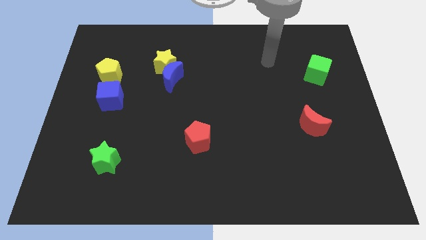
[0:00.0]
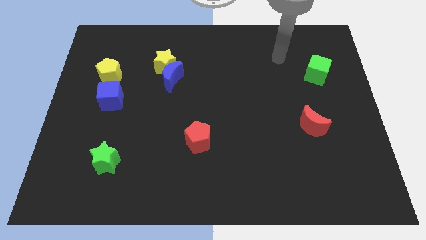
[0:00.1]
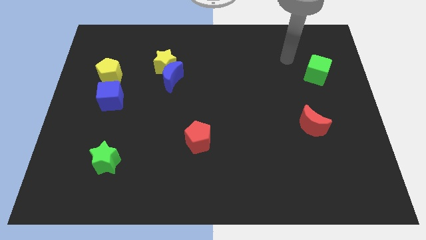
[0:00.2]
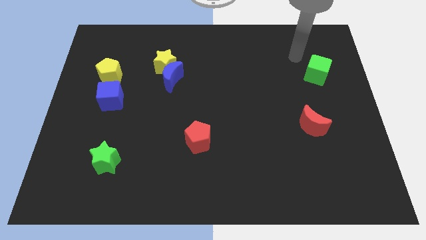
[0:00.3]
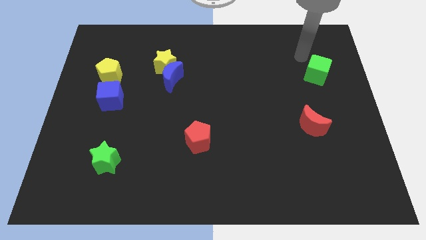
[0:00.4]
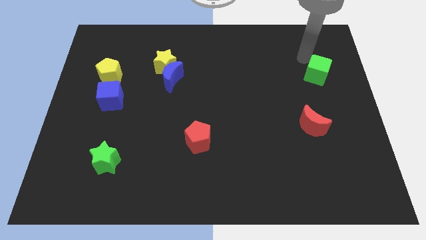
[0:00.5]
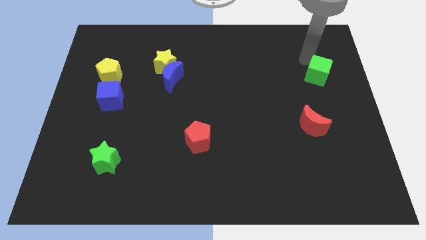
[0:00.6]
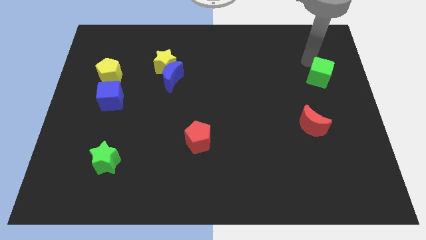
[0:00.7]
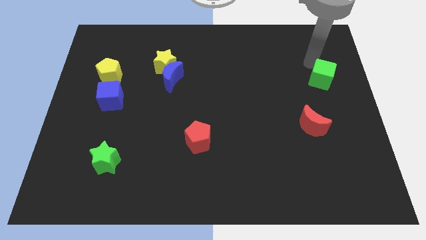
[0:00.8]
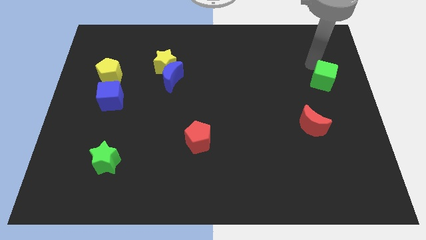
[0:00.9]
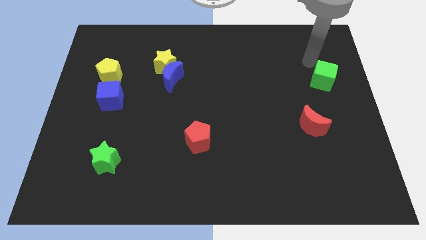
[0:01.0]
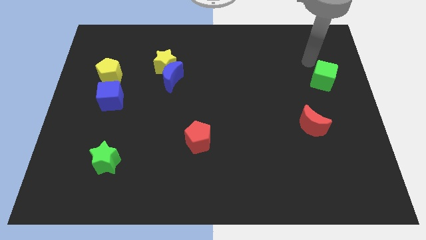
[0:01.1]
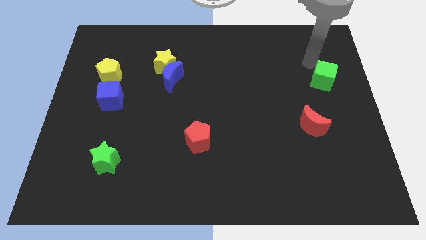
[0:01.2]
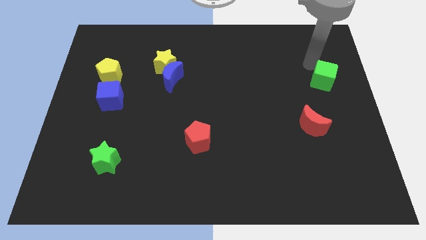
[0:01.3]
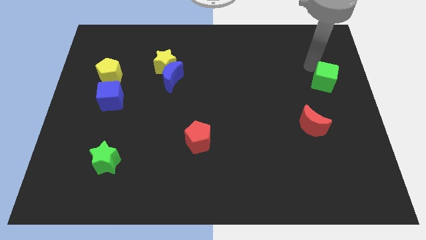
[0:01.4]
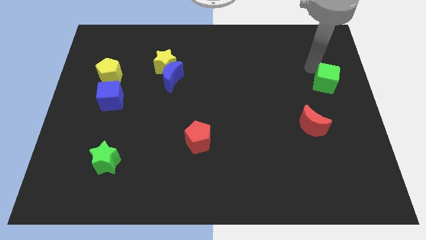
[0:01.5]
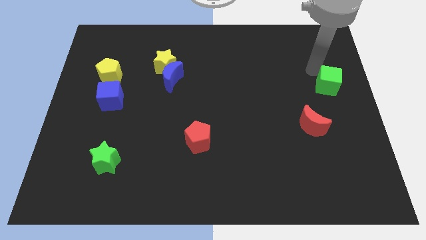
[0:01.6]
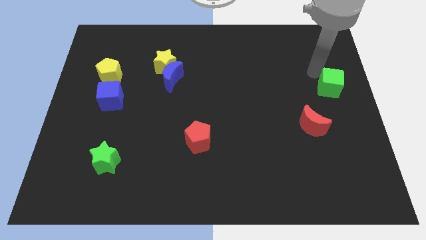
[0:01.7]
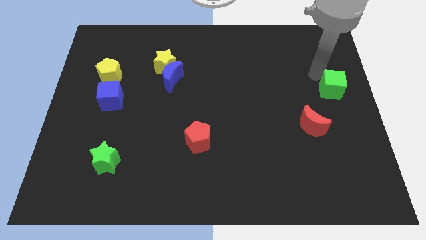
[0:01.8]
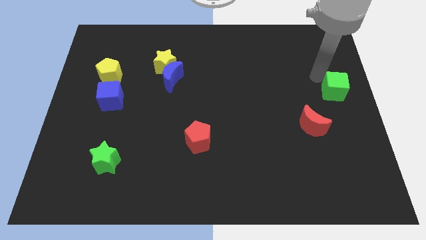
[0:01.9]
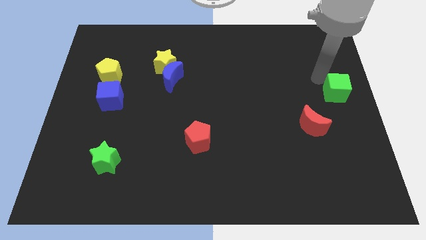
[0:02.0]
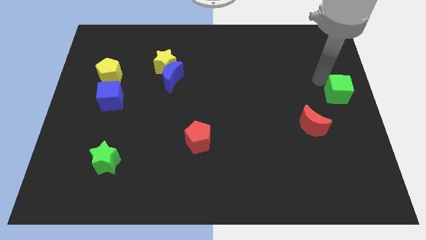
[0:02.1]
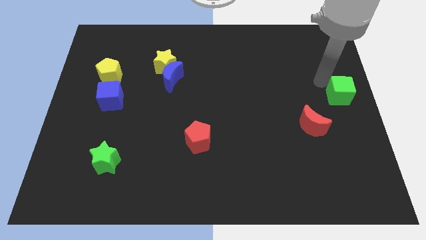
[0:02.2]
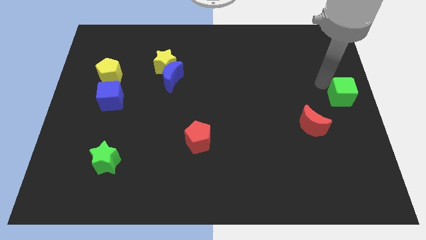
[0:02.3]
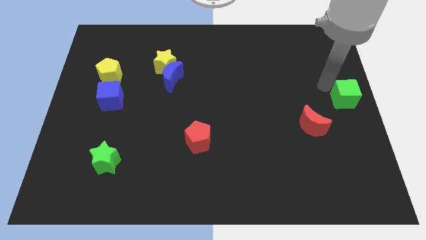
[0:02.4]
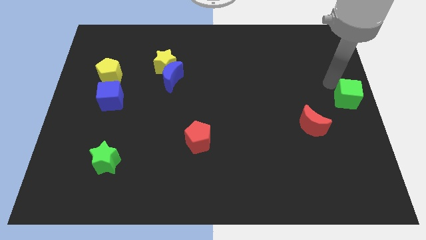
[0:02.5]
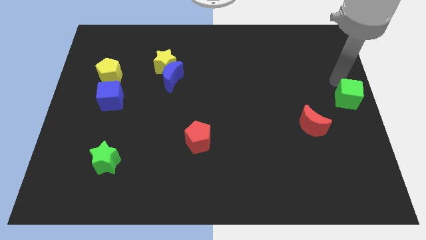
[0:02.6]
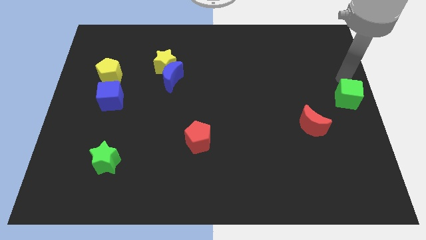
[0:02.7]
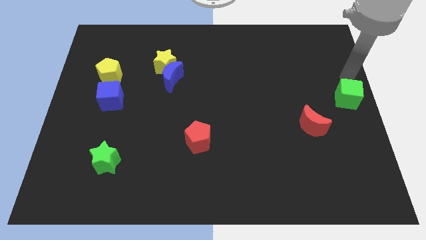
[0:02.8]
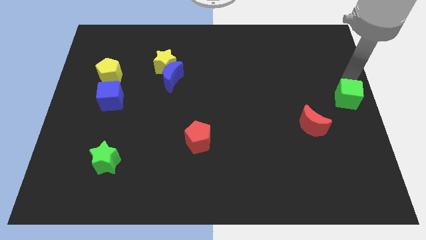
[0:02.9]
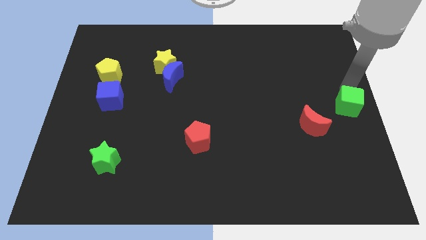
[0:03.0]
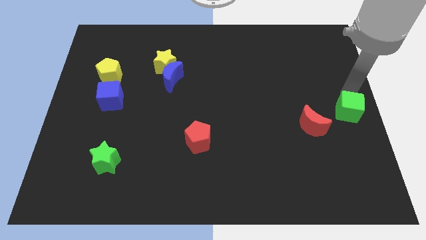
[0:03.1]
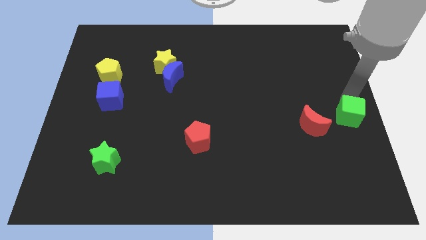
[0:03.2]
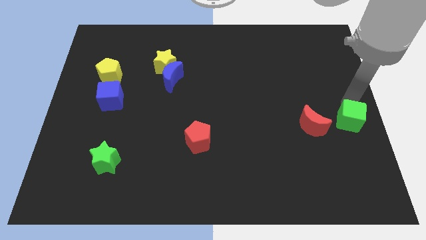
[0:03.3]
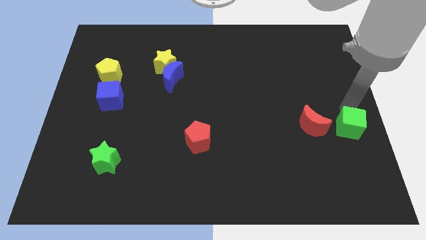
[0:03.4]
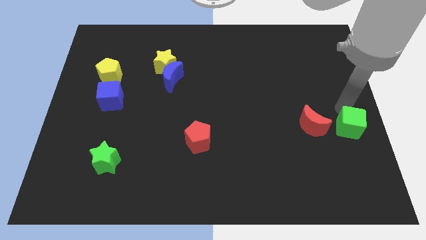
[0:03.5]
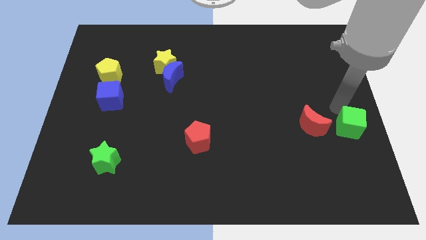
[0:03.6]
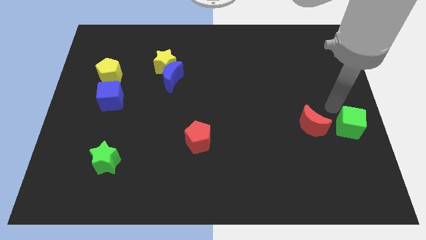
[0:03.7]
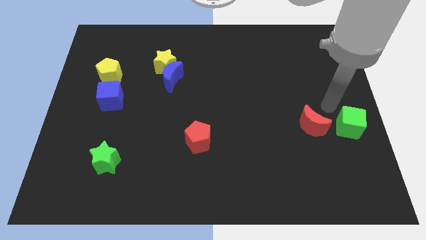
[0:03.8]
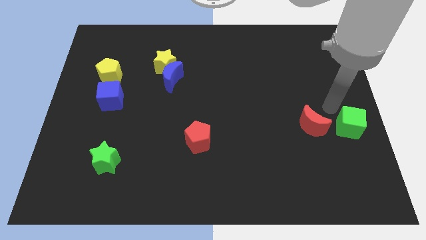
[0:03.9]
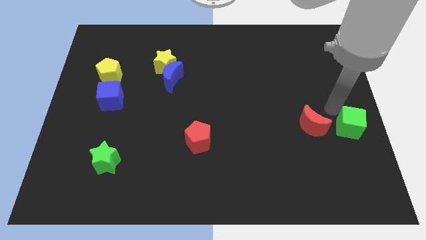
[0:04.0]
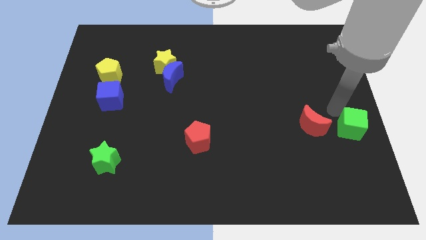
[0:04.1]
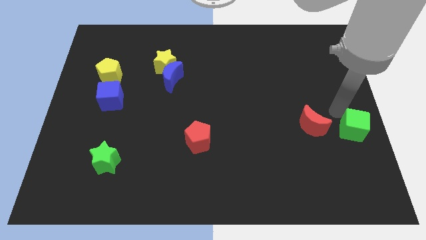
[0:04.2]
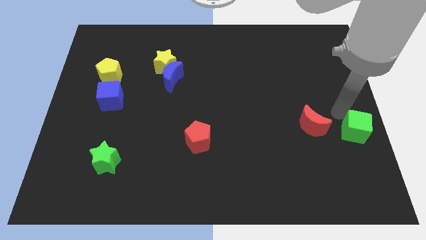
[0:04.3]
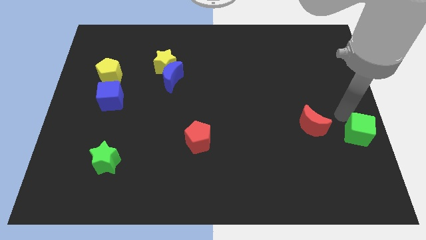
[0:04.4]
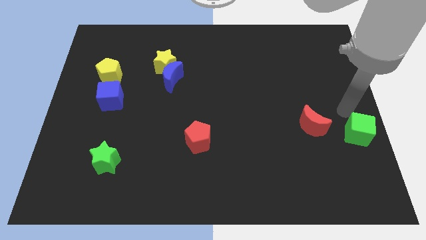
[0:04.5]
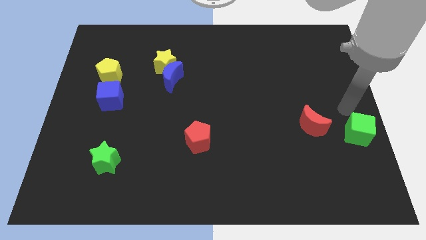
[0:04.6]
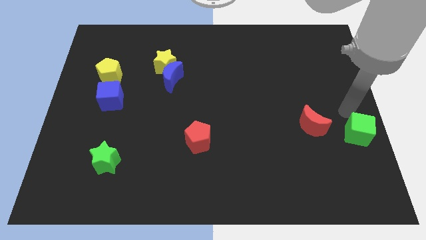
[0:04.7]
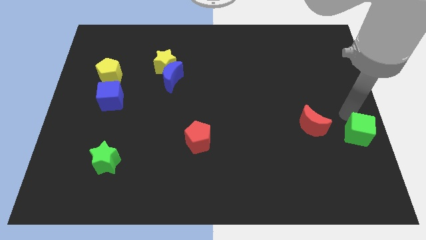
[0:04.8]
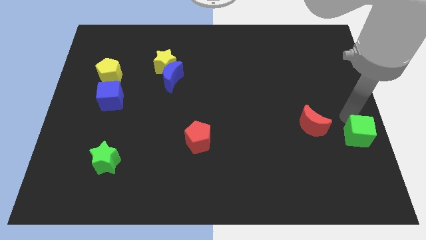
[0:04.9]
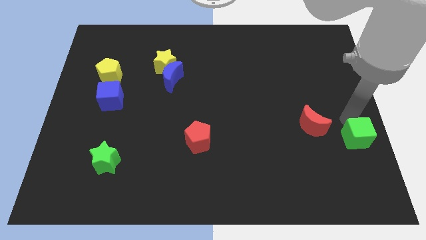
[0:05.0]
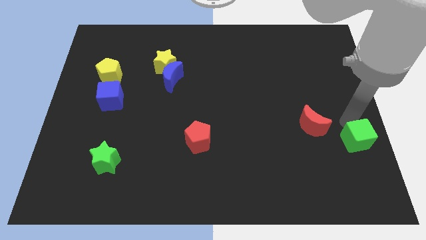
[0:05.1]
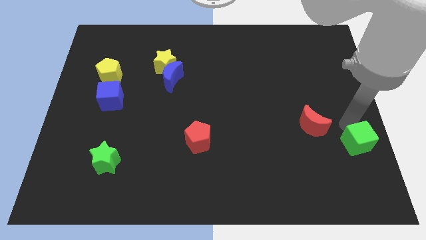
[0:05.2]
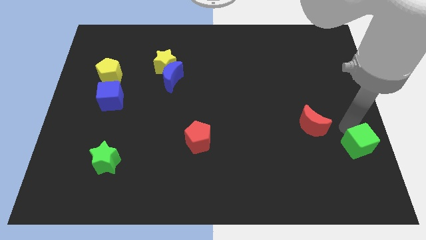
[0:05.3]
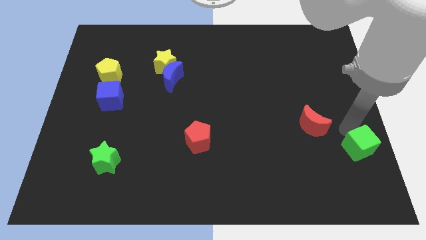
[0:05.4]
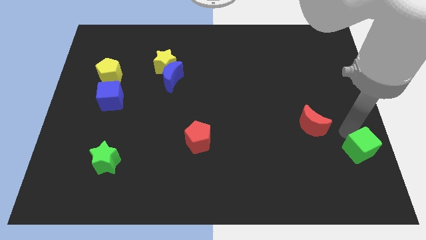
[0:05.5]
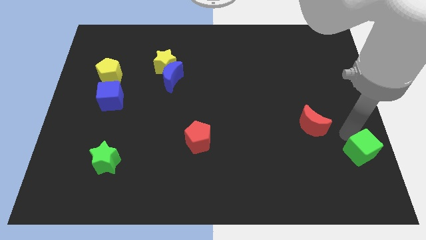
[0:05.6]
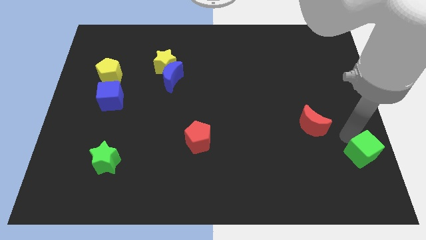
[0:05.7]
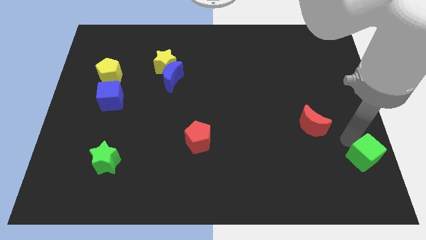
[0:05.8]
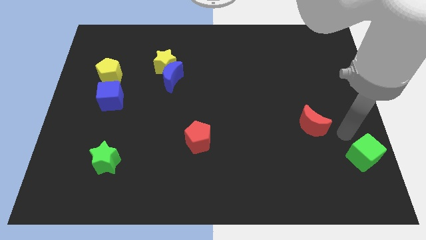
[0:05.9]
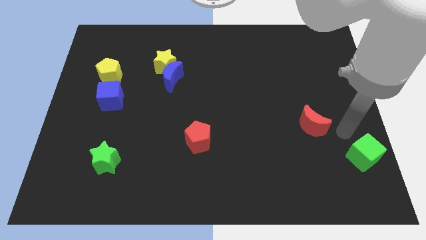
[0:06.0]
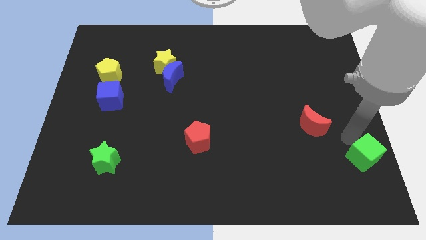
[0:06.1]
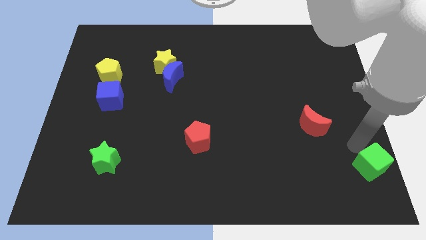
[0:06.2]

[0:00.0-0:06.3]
slide the green cube to the lower right corner

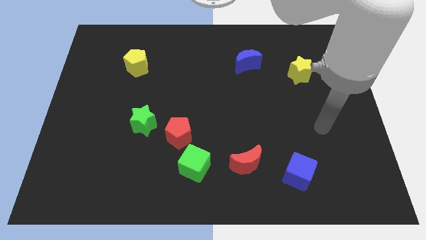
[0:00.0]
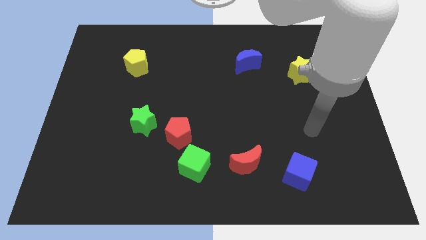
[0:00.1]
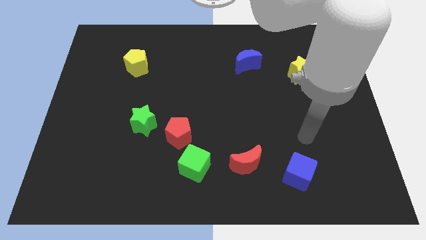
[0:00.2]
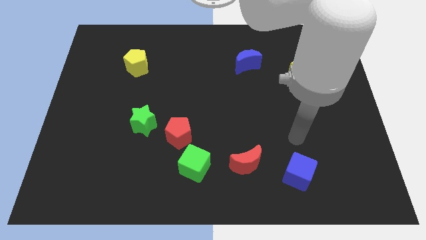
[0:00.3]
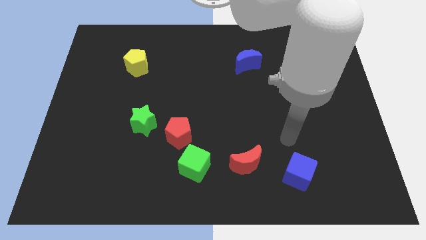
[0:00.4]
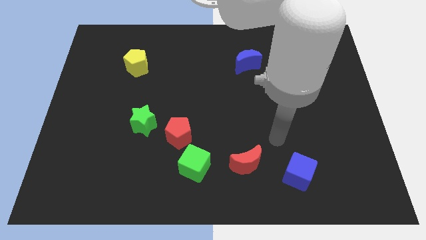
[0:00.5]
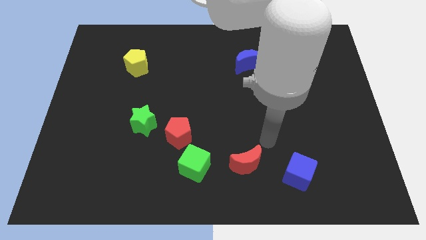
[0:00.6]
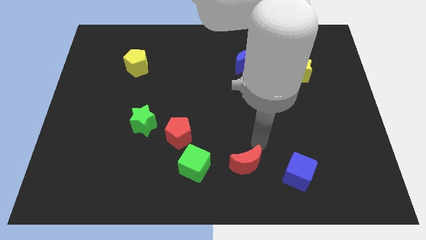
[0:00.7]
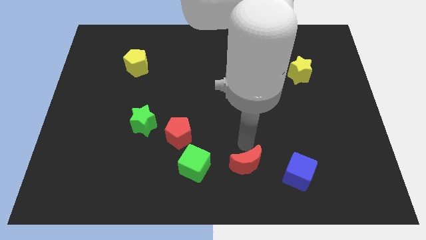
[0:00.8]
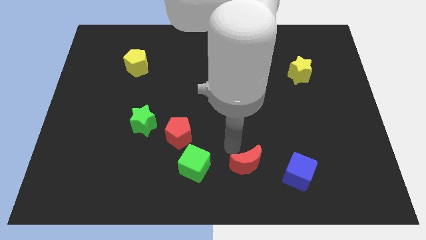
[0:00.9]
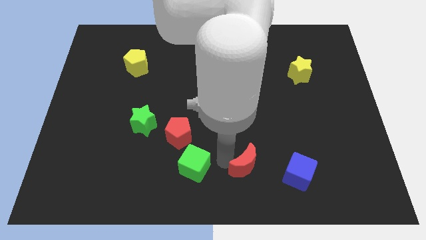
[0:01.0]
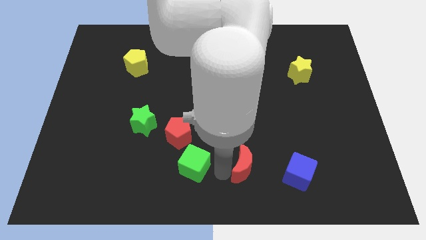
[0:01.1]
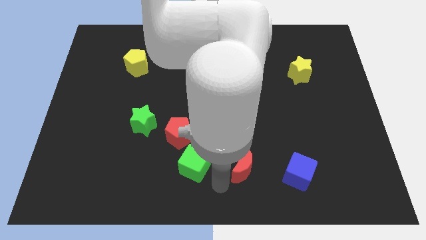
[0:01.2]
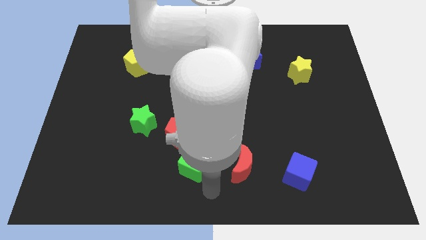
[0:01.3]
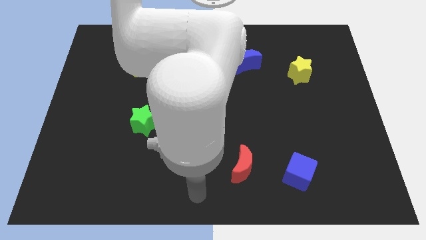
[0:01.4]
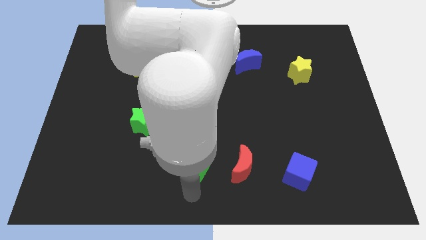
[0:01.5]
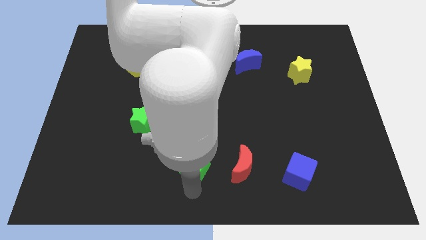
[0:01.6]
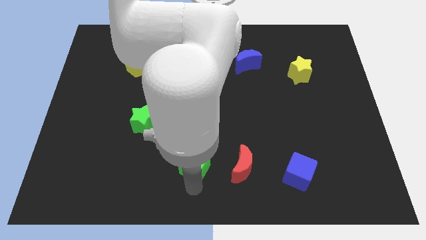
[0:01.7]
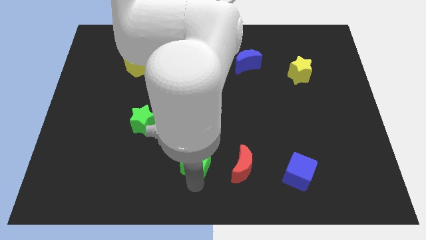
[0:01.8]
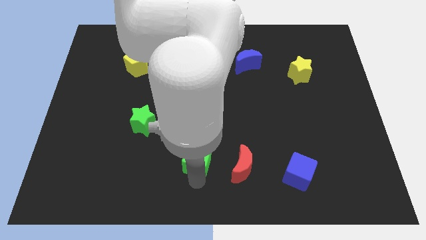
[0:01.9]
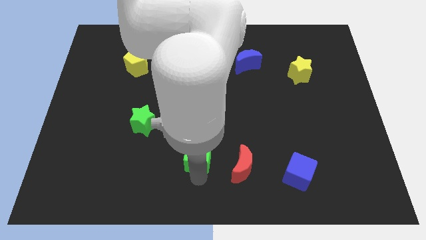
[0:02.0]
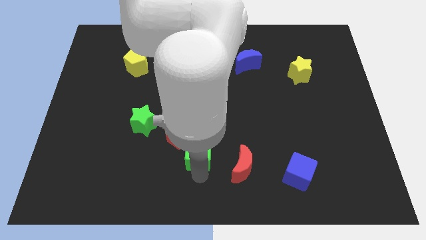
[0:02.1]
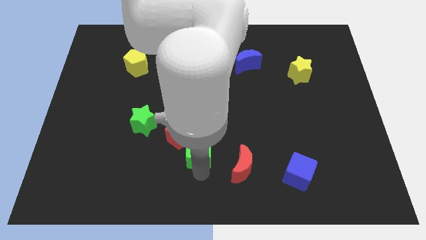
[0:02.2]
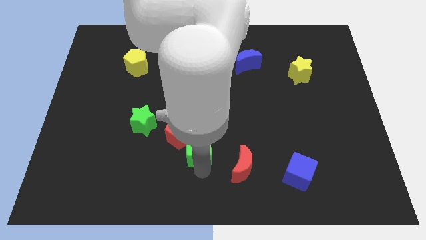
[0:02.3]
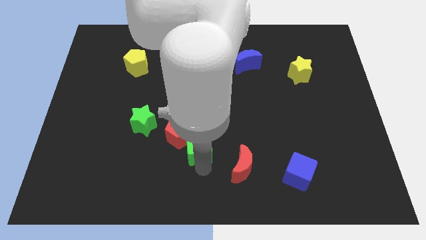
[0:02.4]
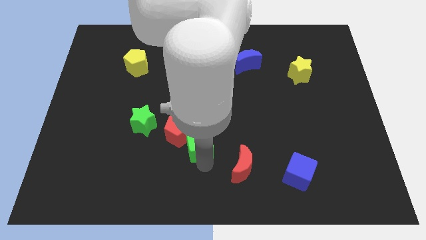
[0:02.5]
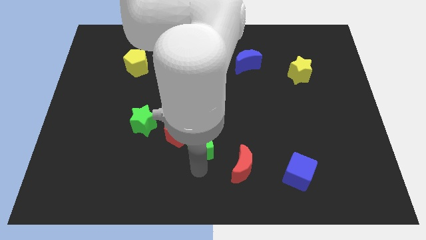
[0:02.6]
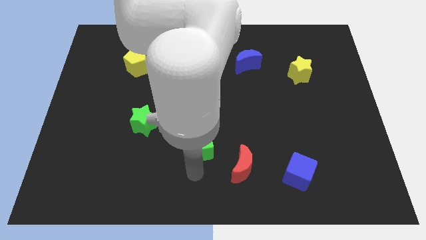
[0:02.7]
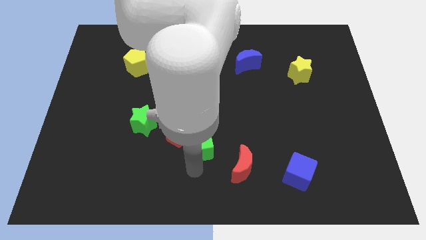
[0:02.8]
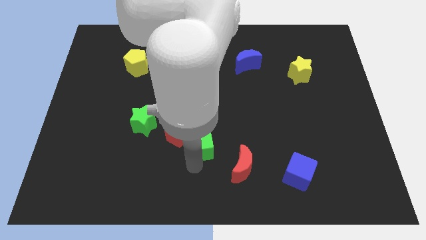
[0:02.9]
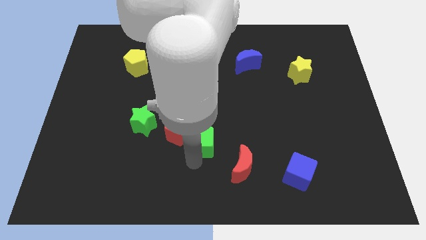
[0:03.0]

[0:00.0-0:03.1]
slide the green cube to the middle
